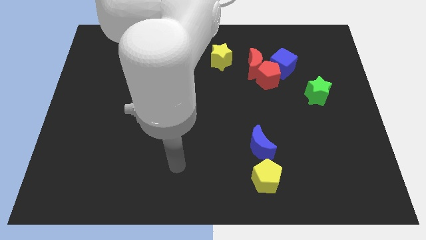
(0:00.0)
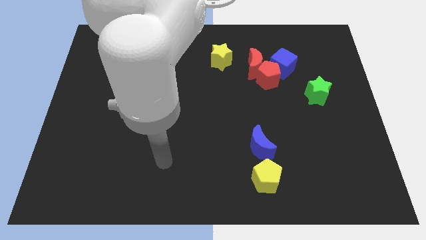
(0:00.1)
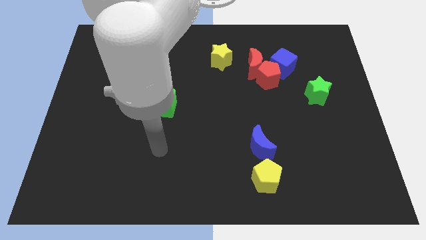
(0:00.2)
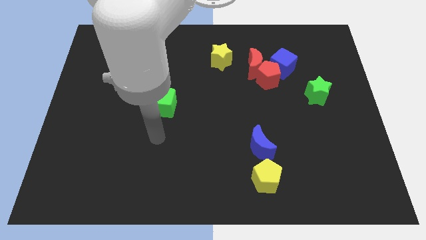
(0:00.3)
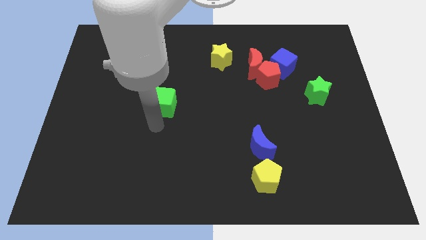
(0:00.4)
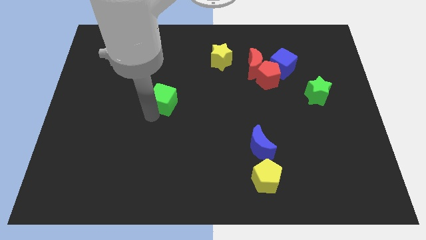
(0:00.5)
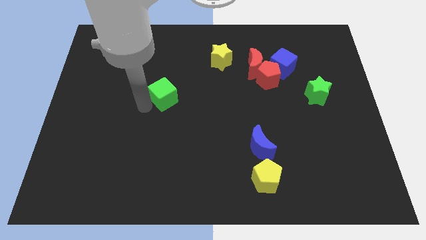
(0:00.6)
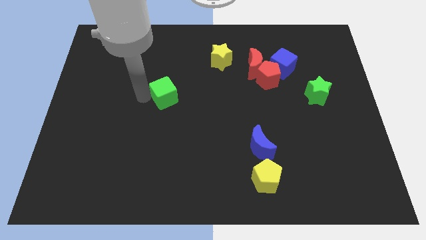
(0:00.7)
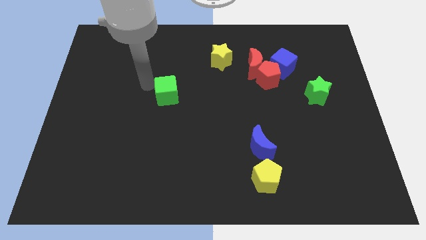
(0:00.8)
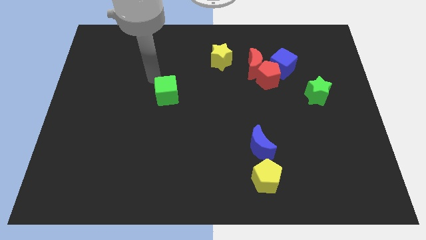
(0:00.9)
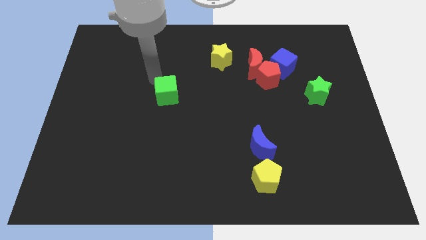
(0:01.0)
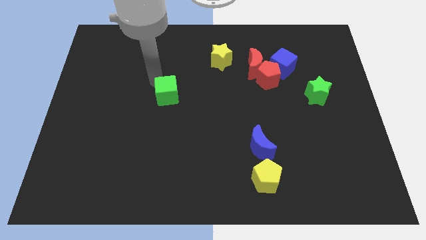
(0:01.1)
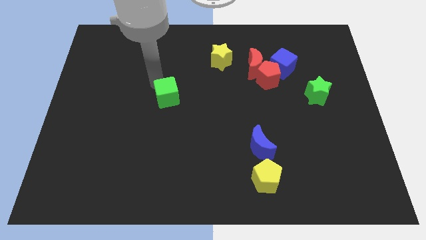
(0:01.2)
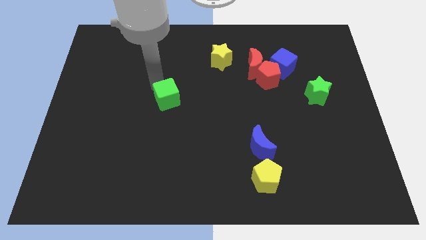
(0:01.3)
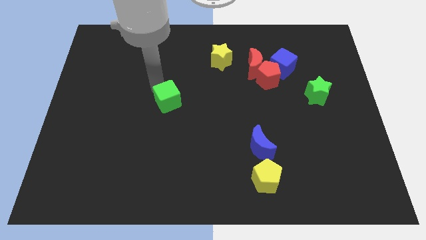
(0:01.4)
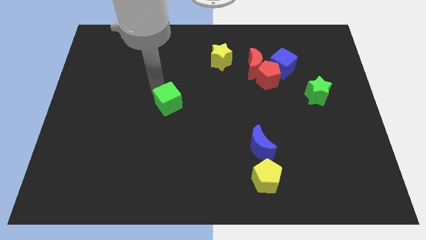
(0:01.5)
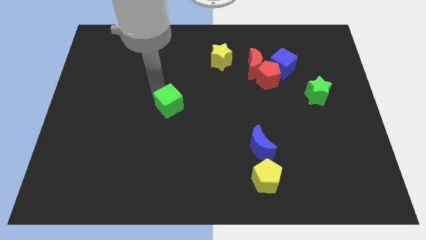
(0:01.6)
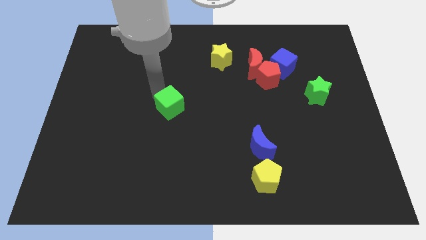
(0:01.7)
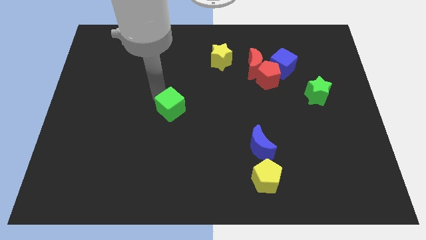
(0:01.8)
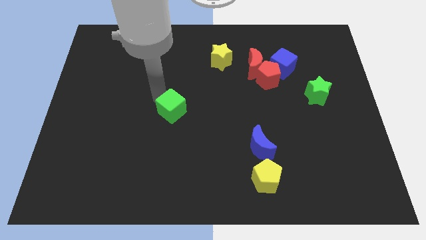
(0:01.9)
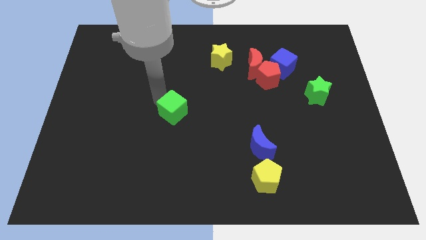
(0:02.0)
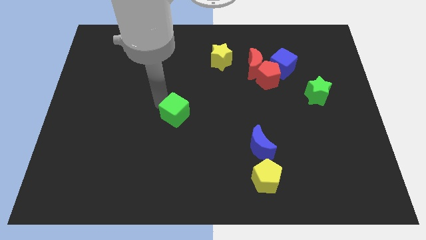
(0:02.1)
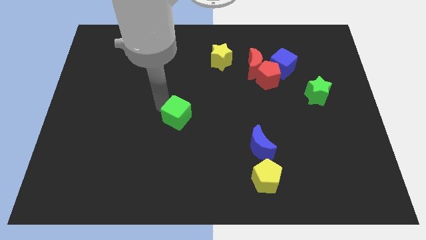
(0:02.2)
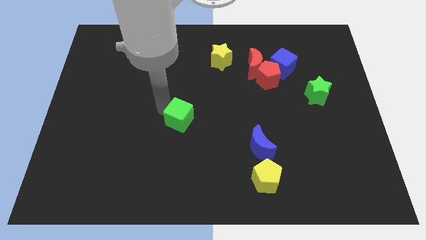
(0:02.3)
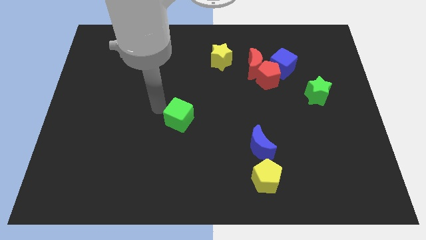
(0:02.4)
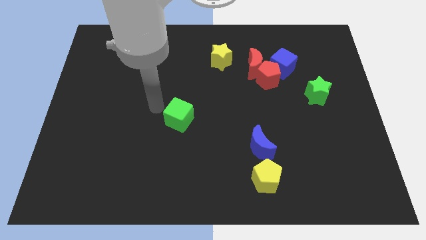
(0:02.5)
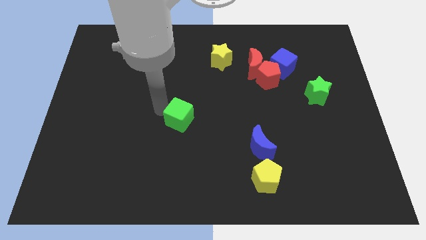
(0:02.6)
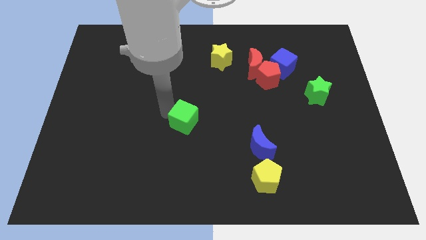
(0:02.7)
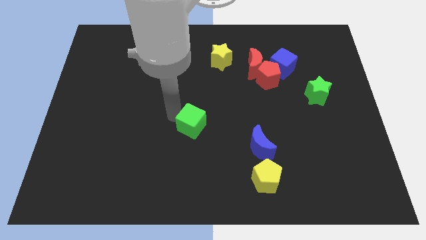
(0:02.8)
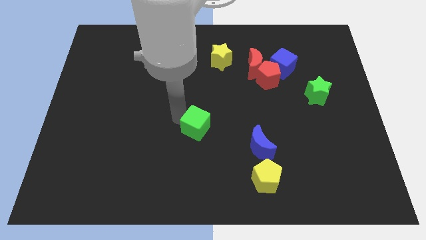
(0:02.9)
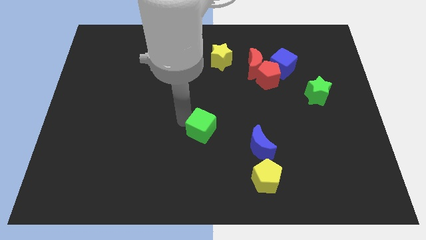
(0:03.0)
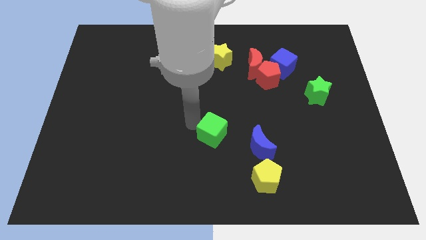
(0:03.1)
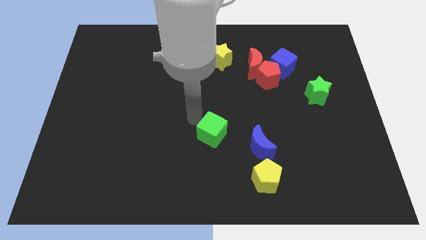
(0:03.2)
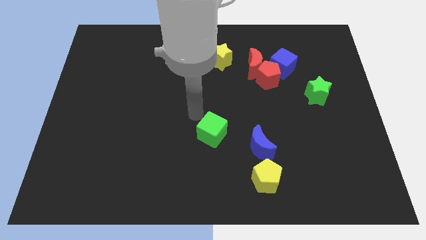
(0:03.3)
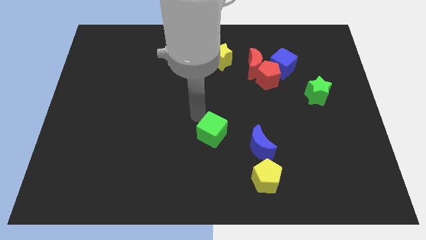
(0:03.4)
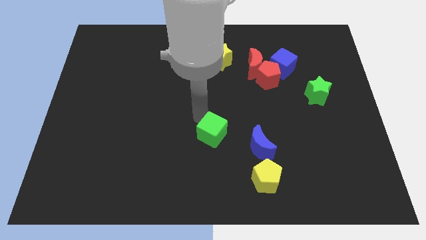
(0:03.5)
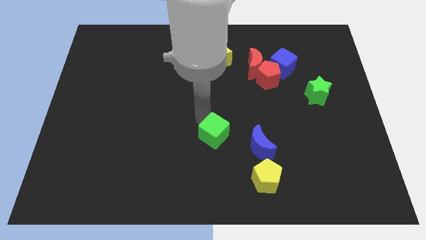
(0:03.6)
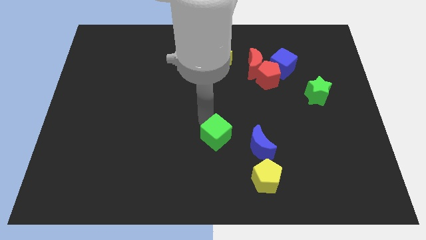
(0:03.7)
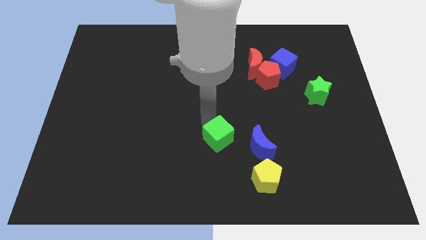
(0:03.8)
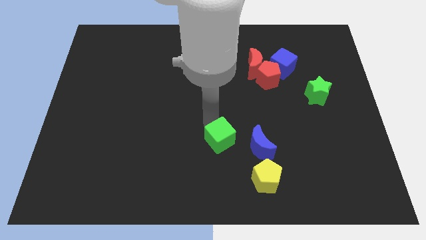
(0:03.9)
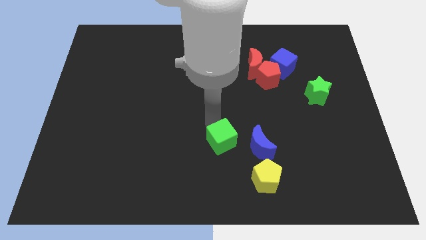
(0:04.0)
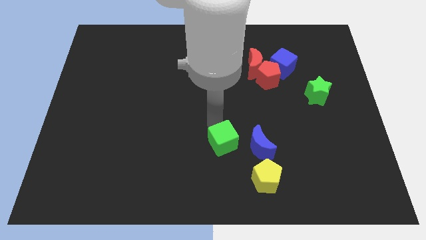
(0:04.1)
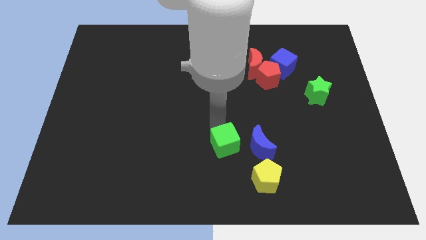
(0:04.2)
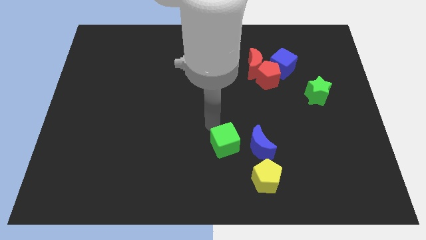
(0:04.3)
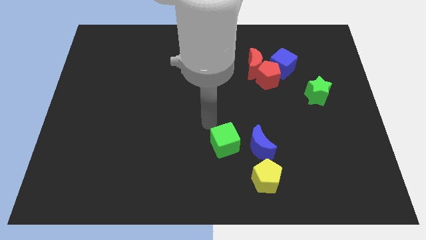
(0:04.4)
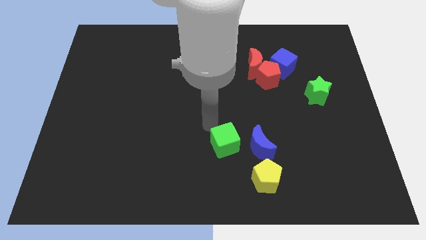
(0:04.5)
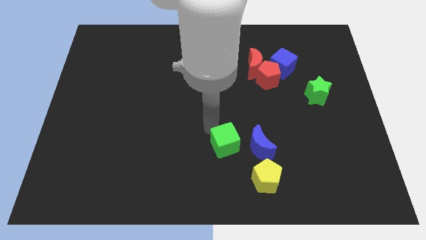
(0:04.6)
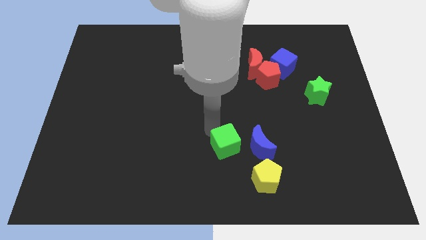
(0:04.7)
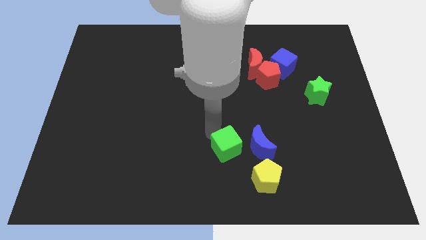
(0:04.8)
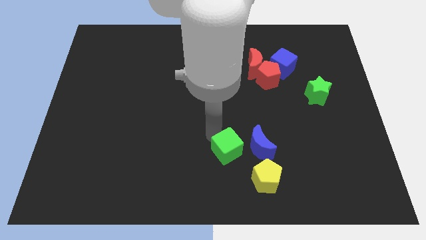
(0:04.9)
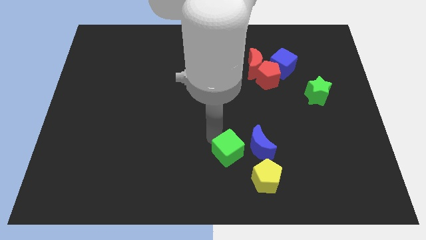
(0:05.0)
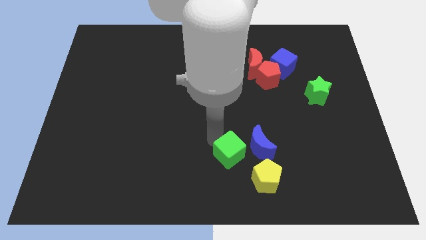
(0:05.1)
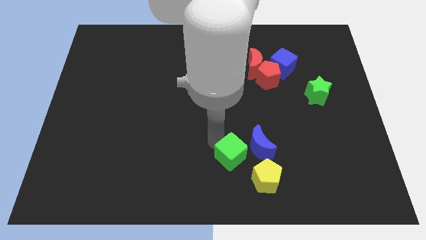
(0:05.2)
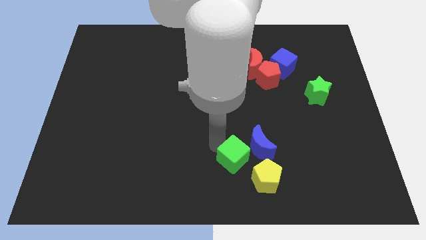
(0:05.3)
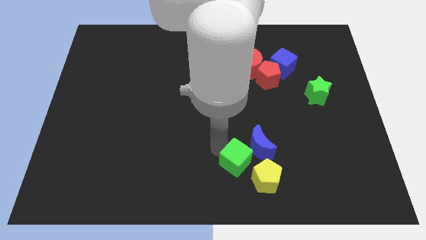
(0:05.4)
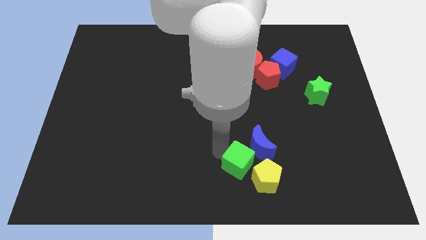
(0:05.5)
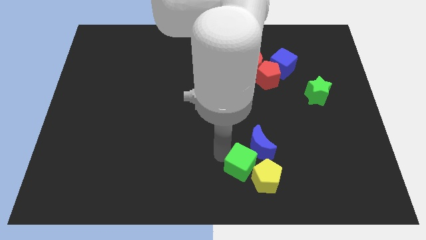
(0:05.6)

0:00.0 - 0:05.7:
put the green cube towards the yellow pentagon

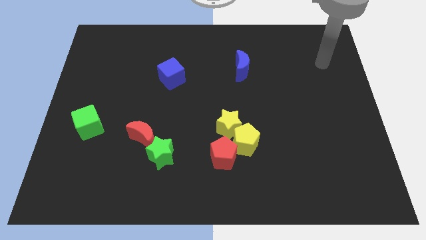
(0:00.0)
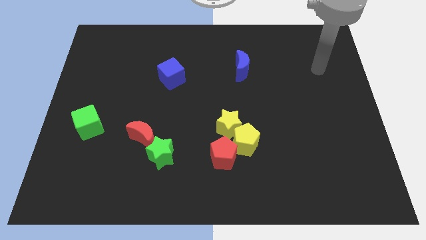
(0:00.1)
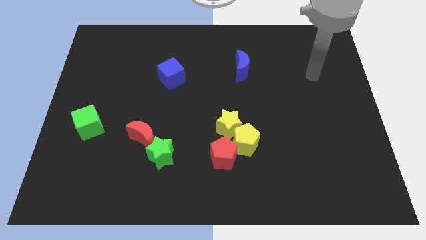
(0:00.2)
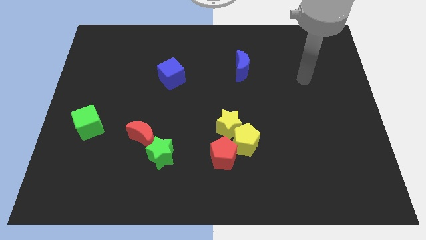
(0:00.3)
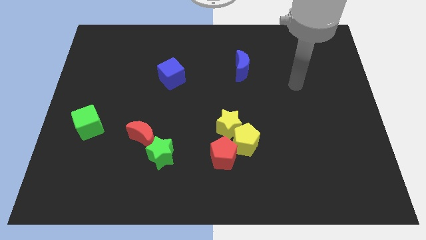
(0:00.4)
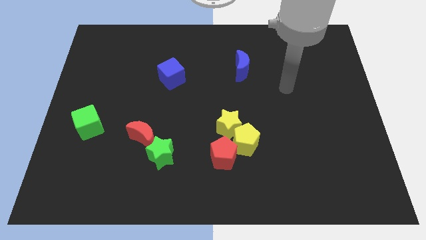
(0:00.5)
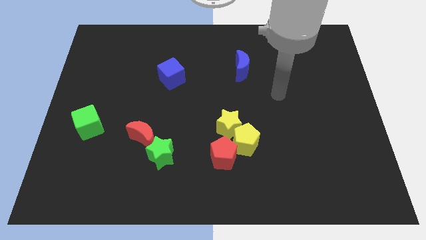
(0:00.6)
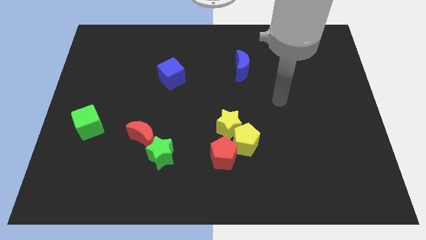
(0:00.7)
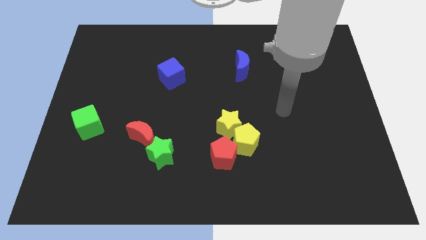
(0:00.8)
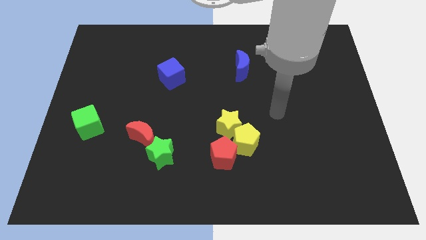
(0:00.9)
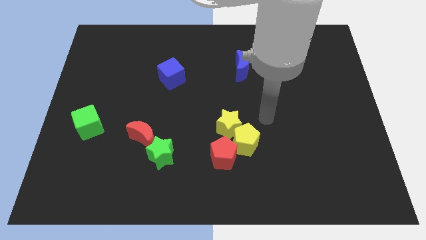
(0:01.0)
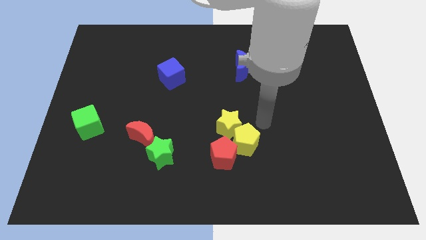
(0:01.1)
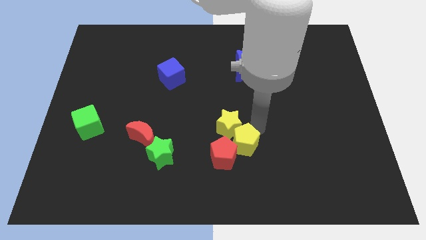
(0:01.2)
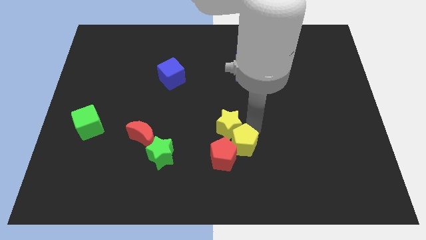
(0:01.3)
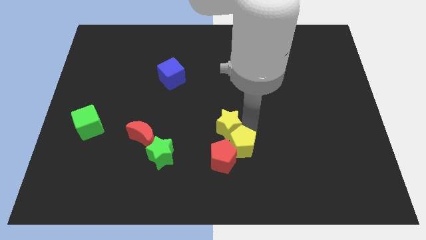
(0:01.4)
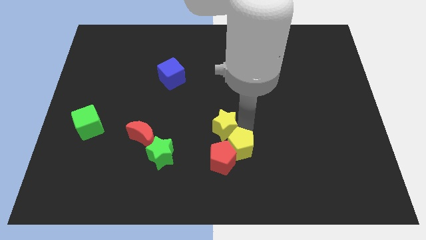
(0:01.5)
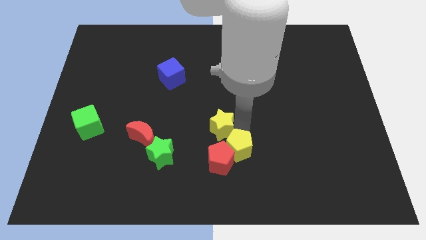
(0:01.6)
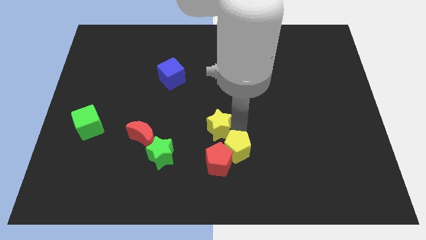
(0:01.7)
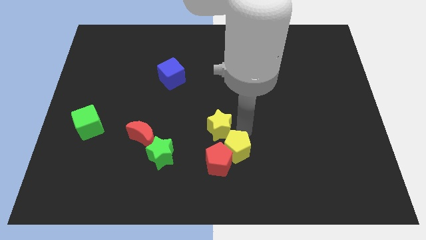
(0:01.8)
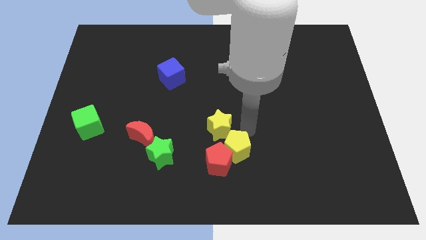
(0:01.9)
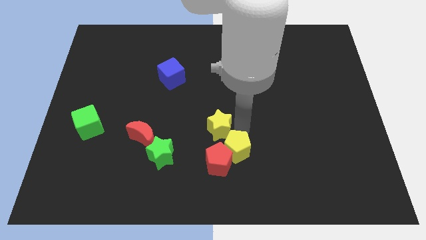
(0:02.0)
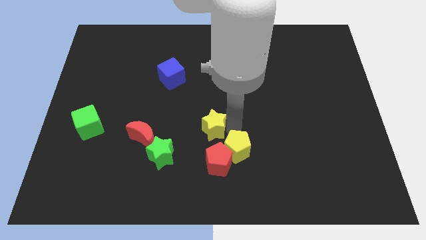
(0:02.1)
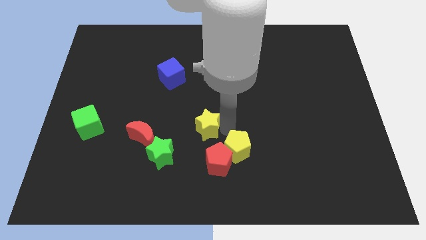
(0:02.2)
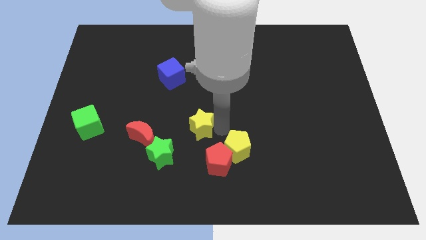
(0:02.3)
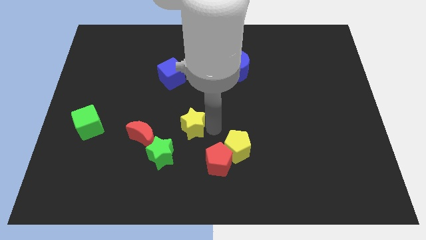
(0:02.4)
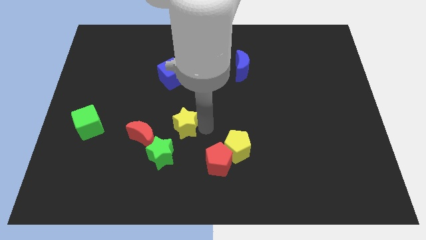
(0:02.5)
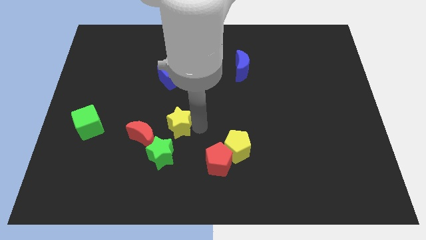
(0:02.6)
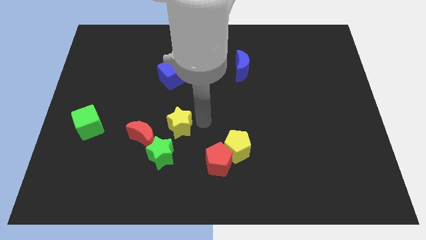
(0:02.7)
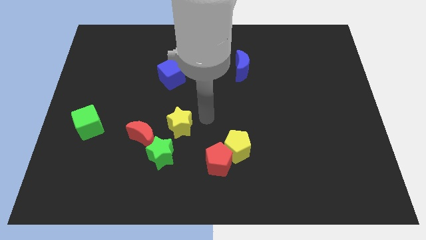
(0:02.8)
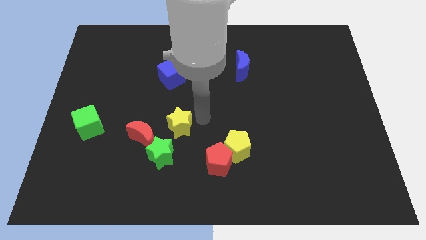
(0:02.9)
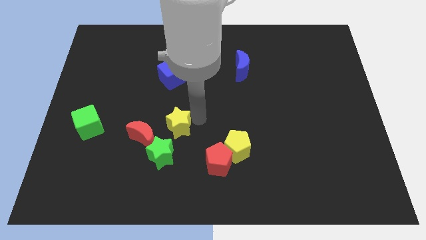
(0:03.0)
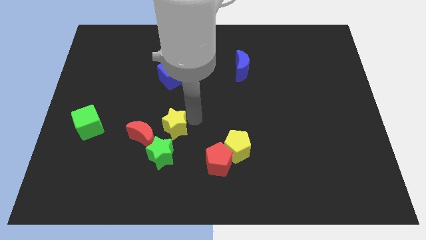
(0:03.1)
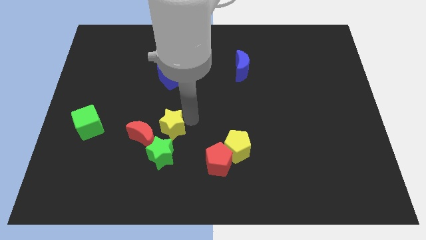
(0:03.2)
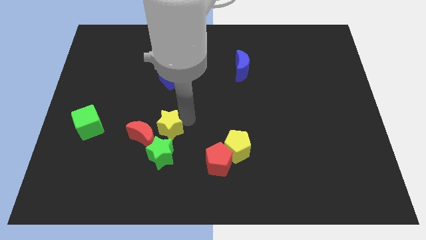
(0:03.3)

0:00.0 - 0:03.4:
move the yellow star close to the red moon
